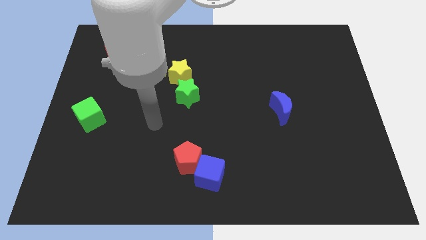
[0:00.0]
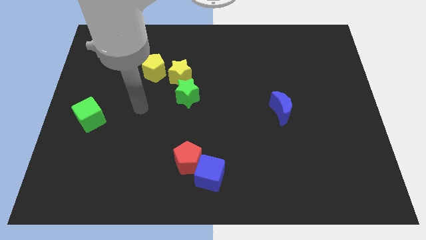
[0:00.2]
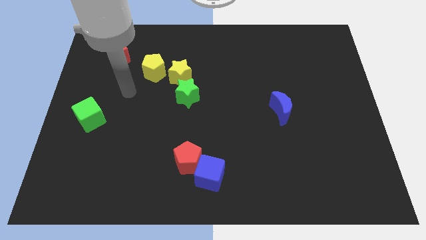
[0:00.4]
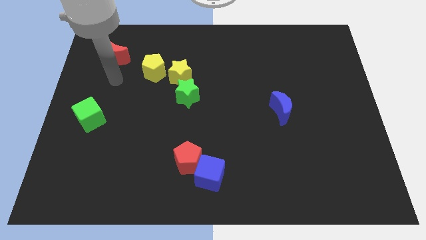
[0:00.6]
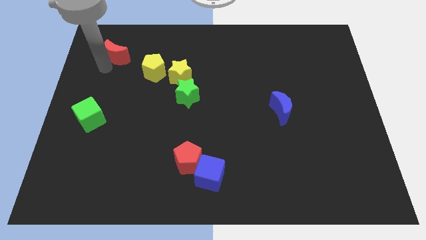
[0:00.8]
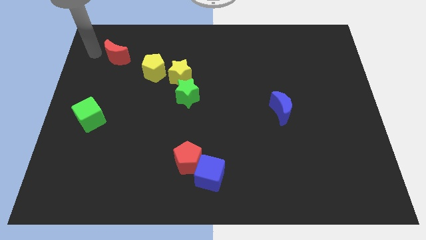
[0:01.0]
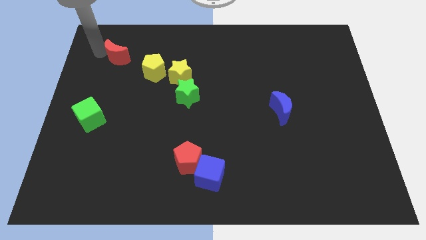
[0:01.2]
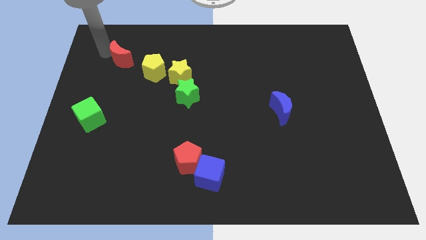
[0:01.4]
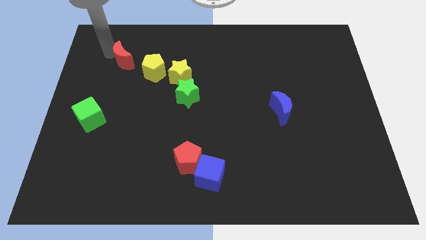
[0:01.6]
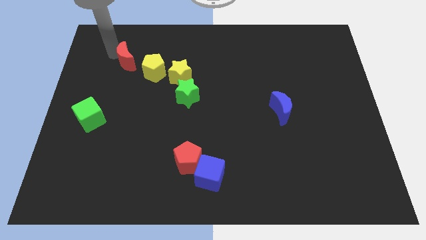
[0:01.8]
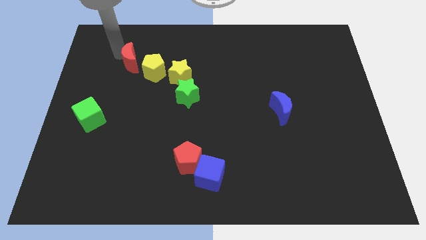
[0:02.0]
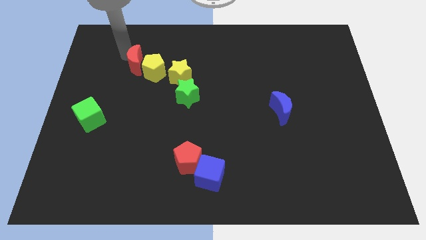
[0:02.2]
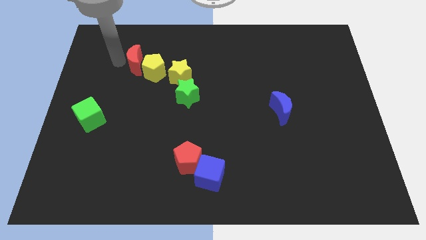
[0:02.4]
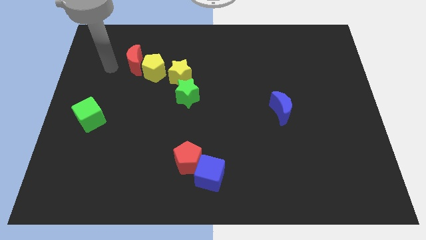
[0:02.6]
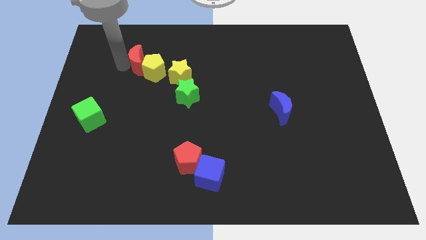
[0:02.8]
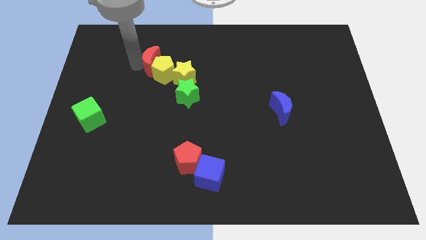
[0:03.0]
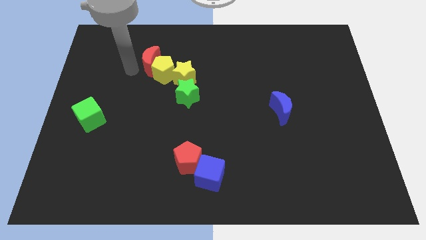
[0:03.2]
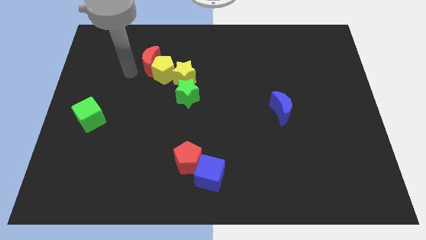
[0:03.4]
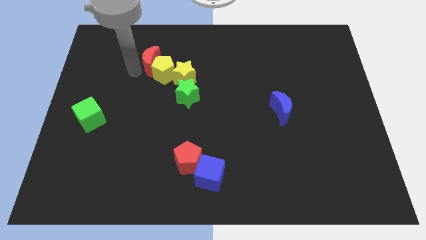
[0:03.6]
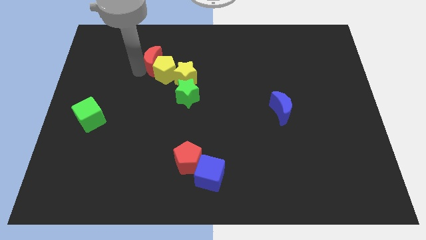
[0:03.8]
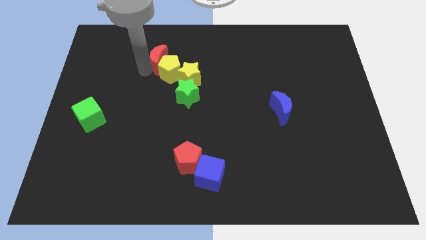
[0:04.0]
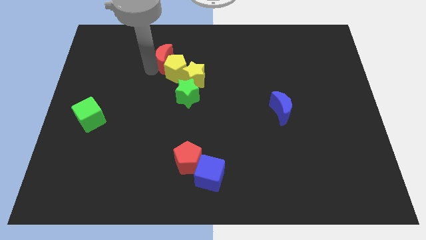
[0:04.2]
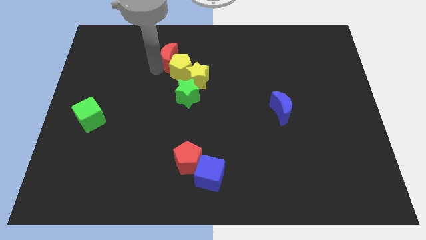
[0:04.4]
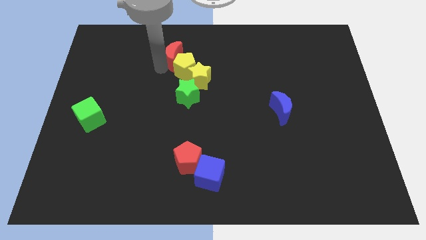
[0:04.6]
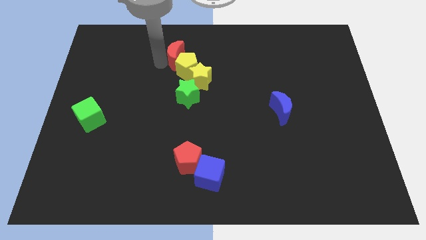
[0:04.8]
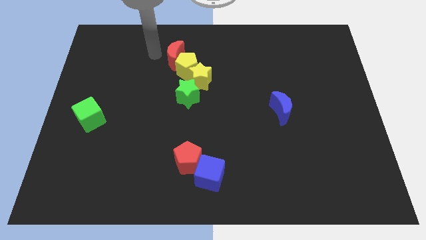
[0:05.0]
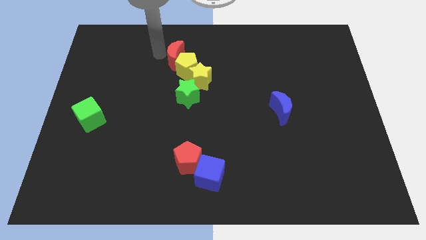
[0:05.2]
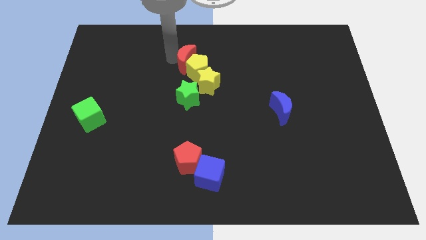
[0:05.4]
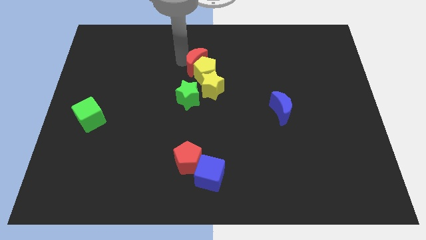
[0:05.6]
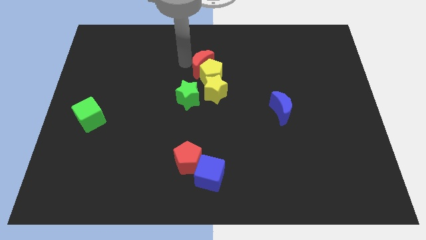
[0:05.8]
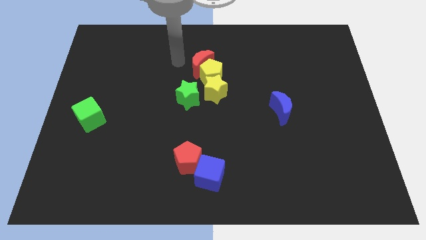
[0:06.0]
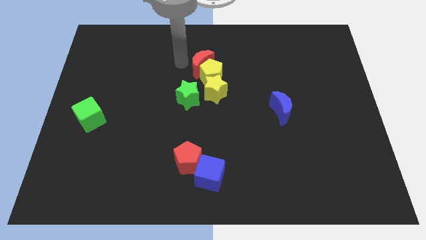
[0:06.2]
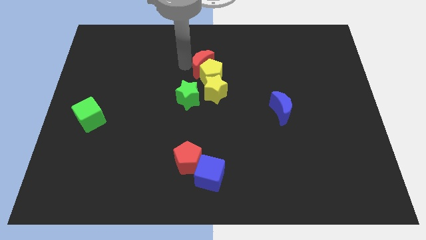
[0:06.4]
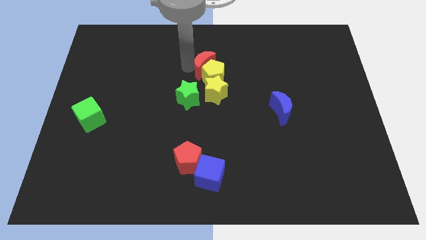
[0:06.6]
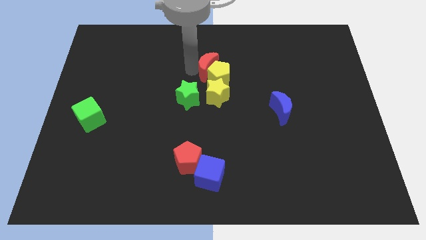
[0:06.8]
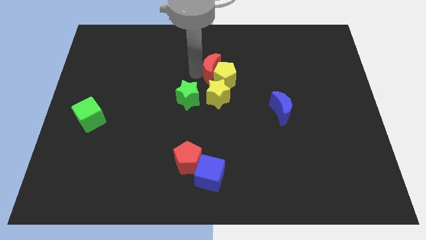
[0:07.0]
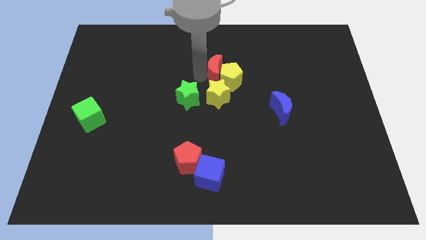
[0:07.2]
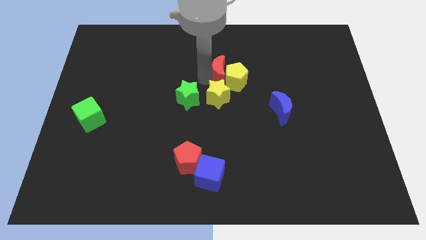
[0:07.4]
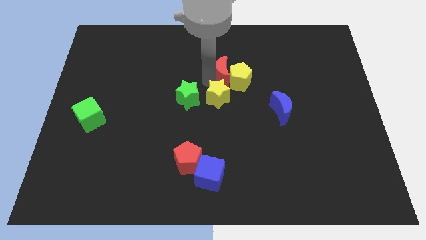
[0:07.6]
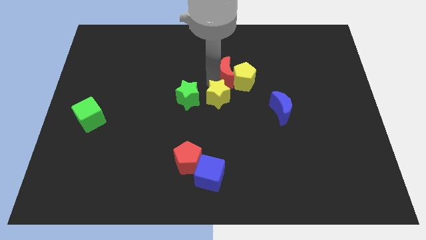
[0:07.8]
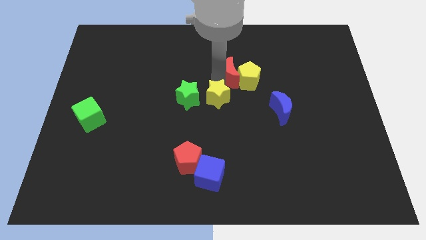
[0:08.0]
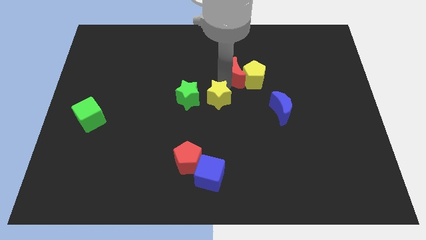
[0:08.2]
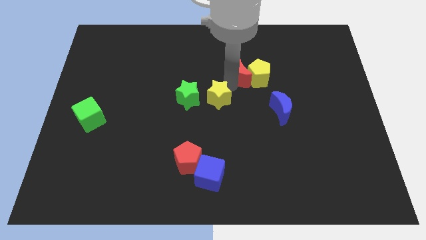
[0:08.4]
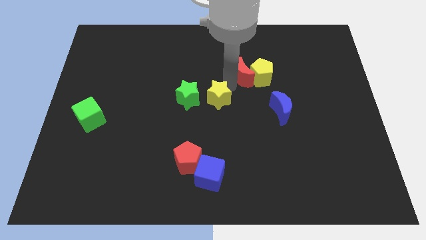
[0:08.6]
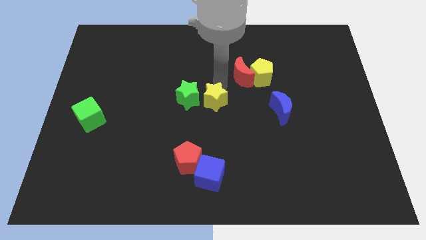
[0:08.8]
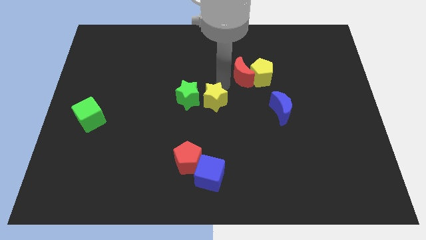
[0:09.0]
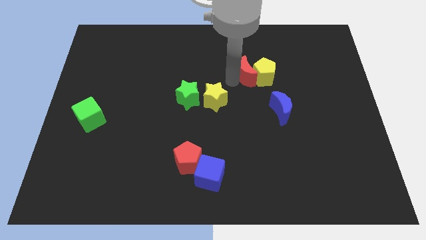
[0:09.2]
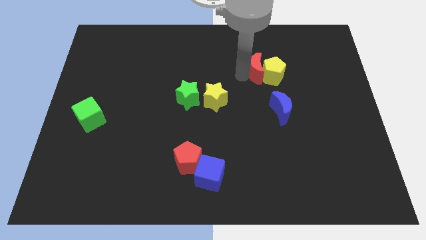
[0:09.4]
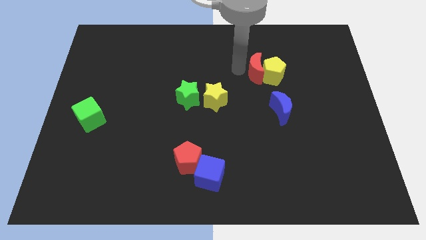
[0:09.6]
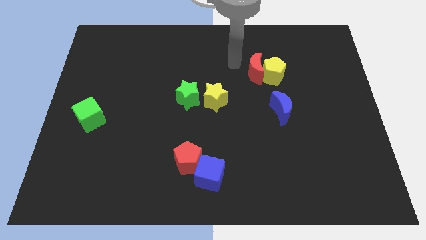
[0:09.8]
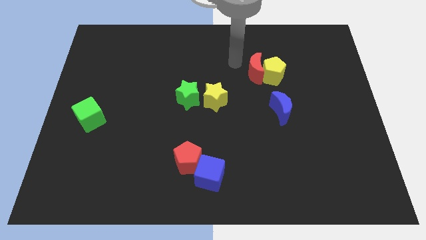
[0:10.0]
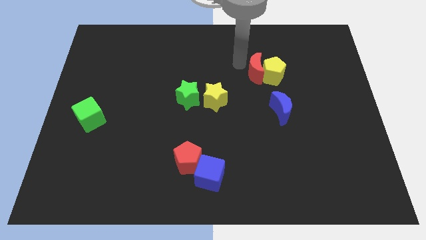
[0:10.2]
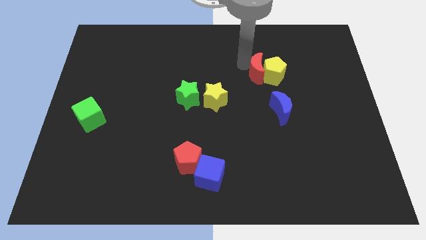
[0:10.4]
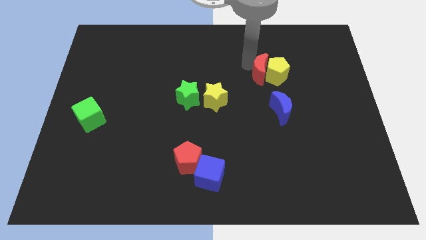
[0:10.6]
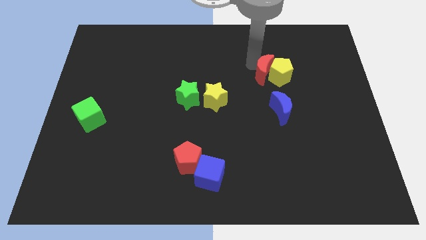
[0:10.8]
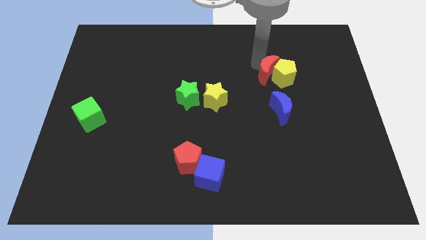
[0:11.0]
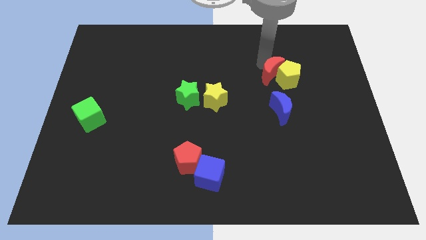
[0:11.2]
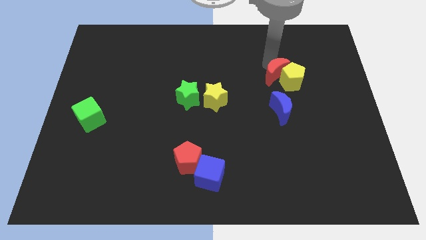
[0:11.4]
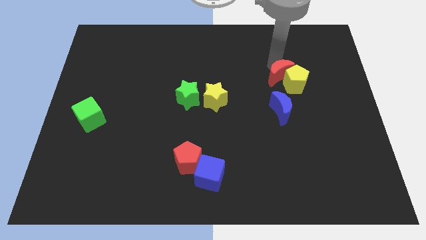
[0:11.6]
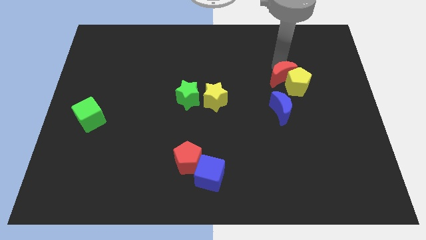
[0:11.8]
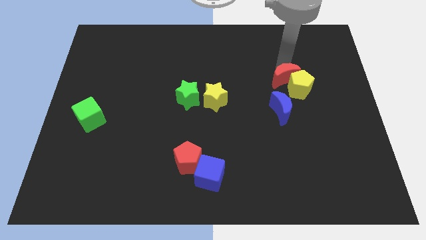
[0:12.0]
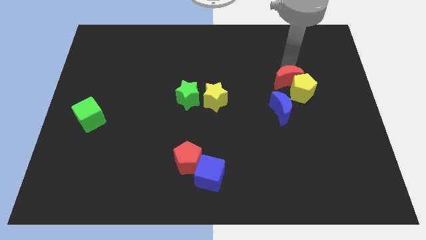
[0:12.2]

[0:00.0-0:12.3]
slide the red moon diagonally up and to the right of the blue moon

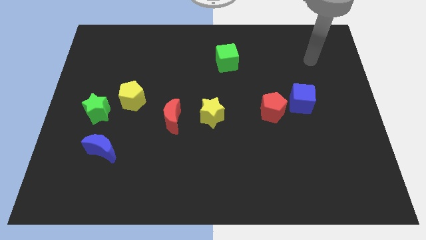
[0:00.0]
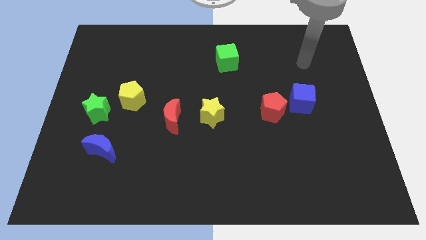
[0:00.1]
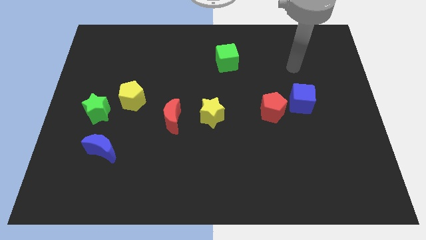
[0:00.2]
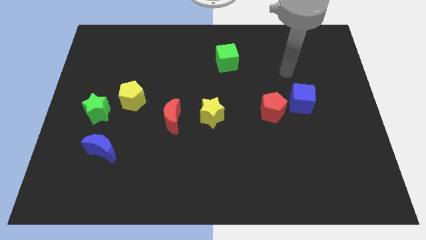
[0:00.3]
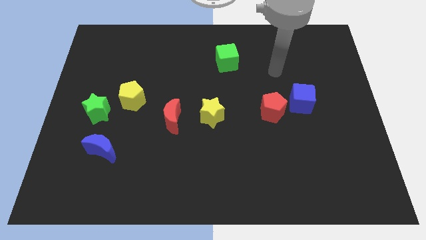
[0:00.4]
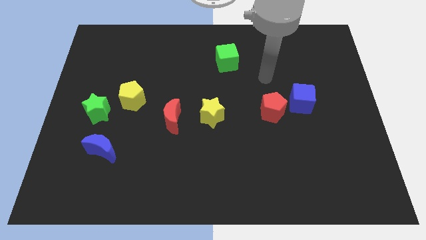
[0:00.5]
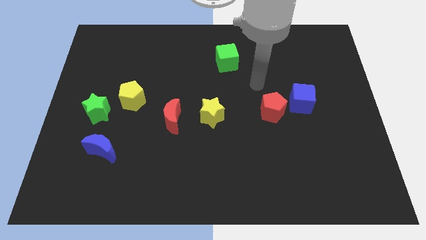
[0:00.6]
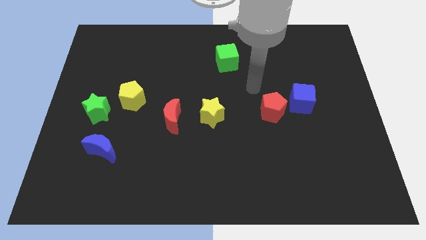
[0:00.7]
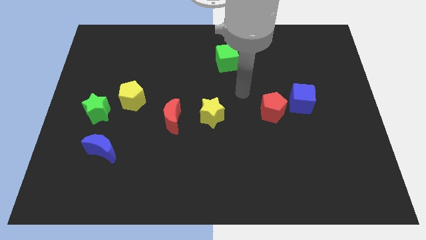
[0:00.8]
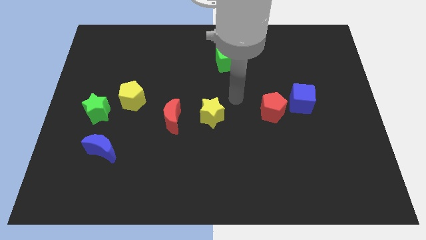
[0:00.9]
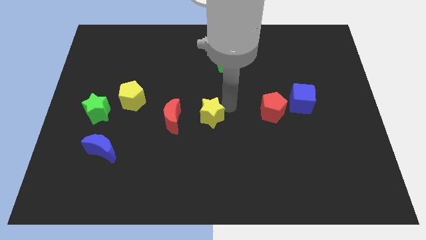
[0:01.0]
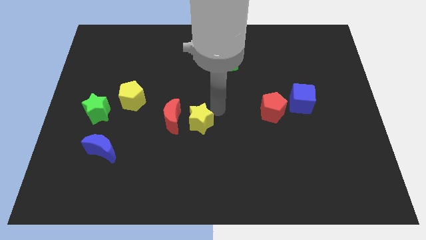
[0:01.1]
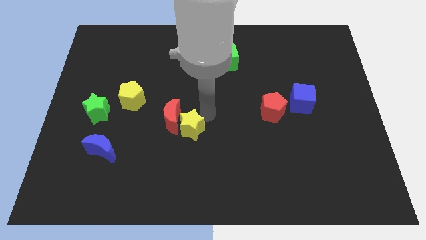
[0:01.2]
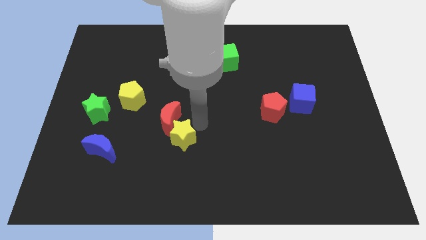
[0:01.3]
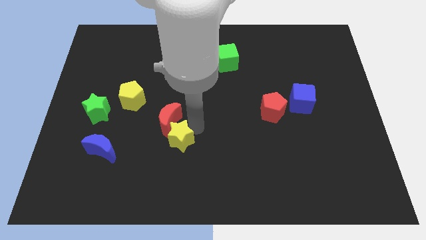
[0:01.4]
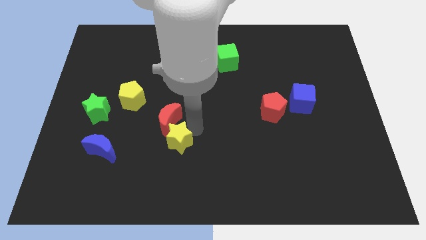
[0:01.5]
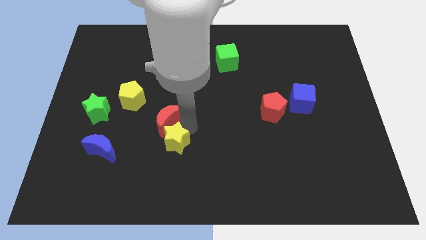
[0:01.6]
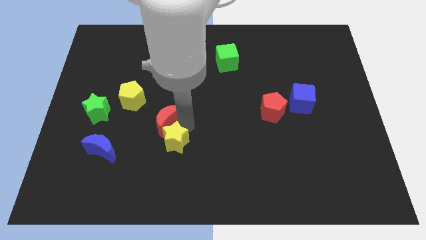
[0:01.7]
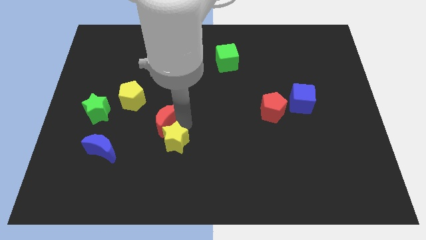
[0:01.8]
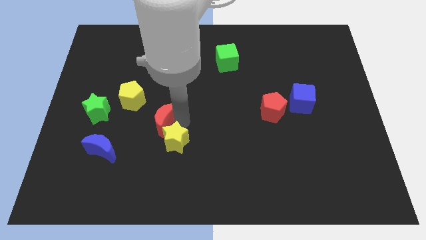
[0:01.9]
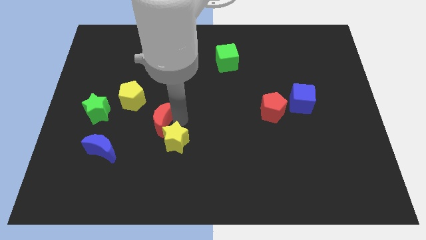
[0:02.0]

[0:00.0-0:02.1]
push the red moon to the right side of the green star
